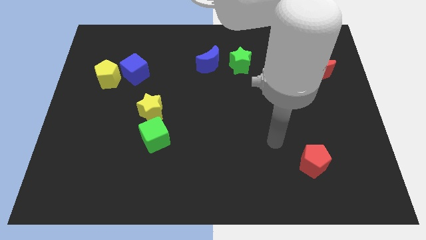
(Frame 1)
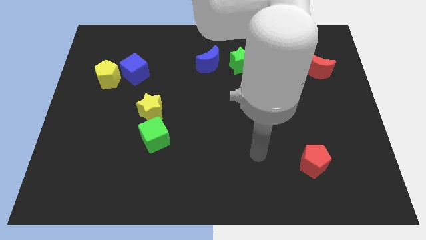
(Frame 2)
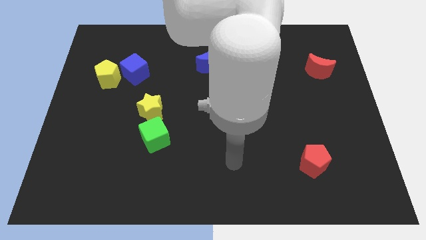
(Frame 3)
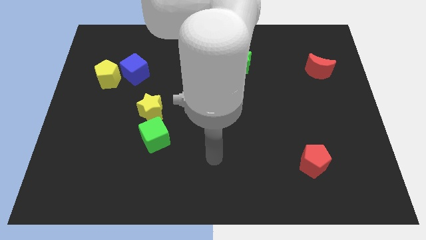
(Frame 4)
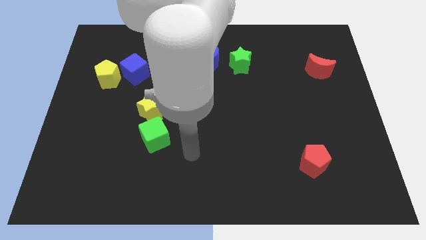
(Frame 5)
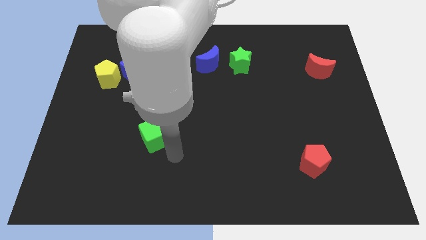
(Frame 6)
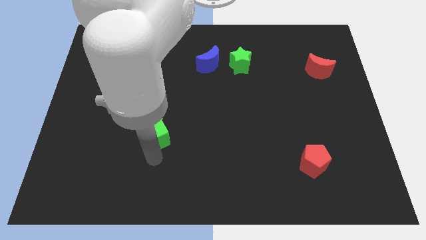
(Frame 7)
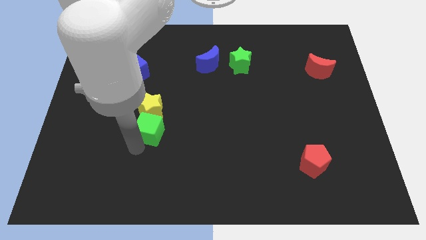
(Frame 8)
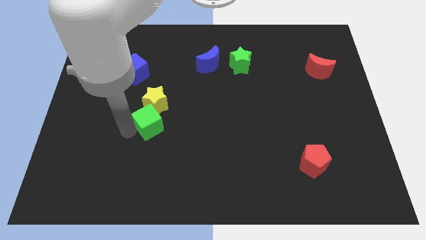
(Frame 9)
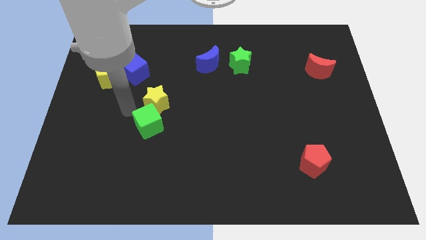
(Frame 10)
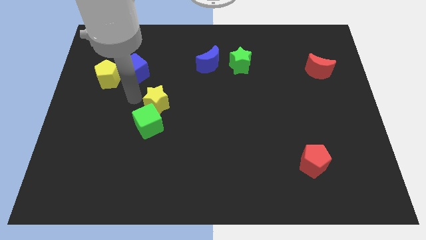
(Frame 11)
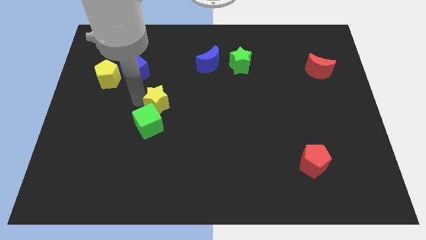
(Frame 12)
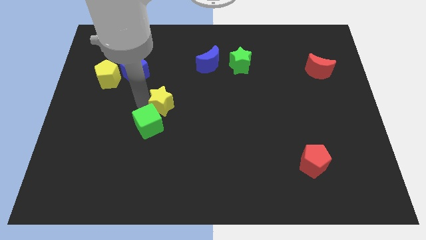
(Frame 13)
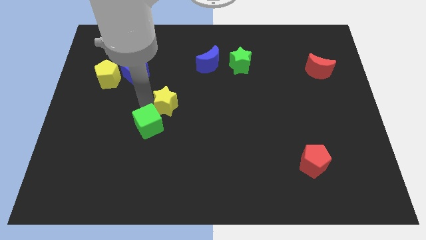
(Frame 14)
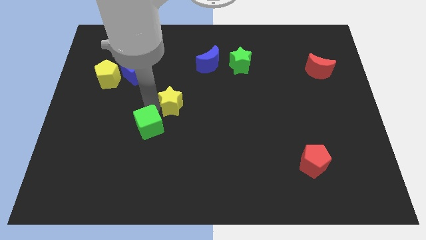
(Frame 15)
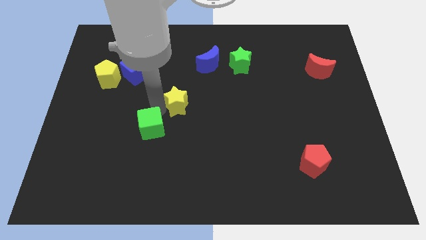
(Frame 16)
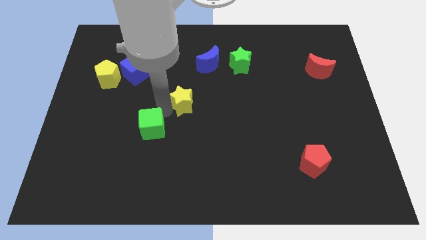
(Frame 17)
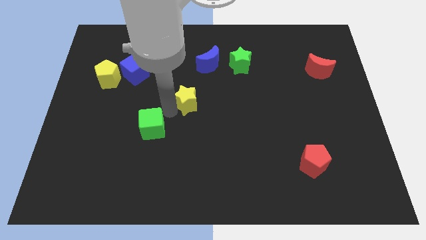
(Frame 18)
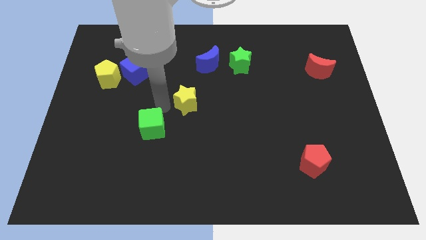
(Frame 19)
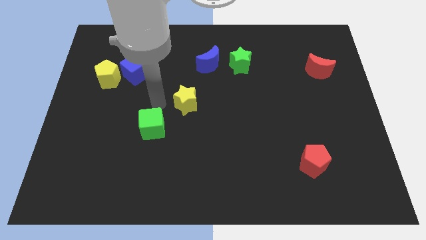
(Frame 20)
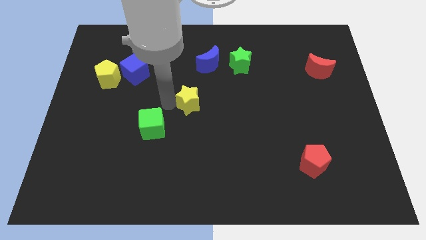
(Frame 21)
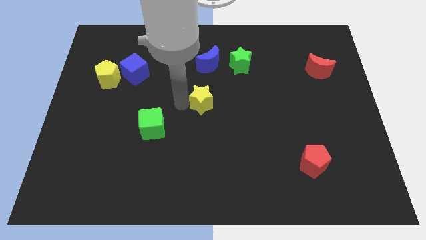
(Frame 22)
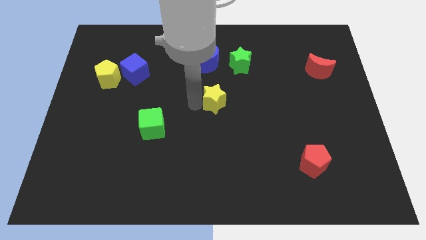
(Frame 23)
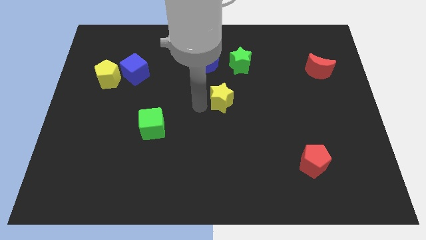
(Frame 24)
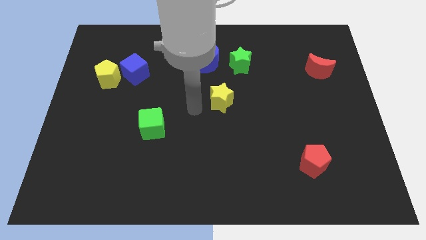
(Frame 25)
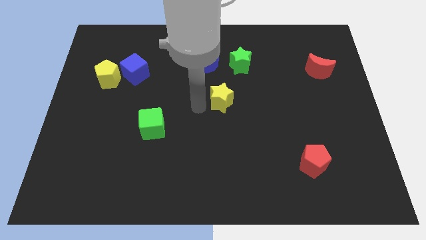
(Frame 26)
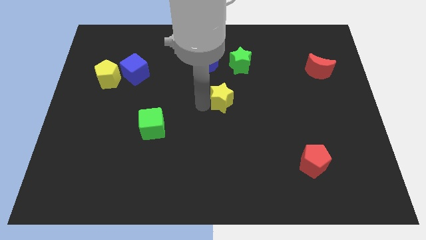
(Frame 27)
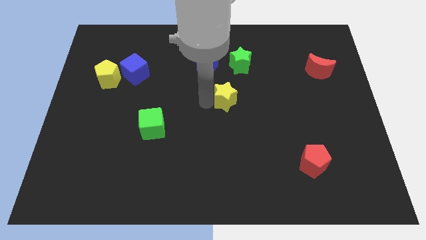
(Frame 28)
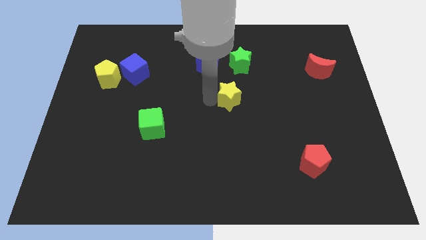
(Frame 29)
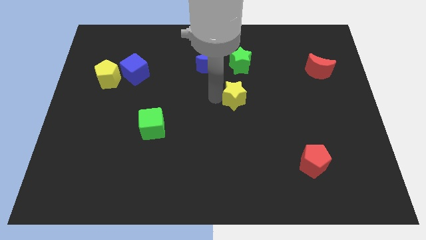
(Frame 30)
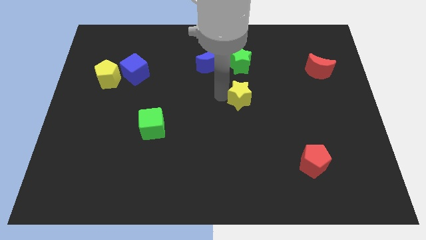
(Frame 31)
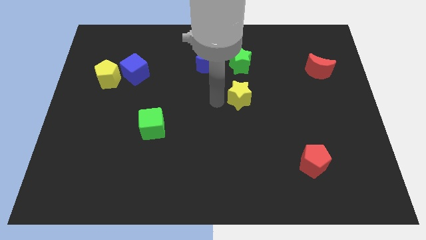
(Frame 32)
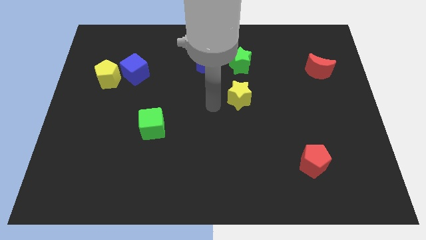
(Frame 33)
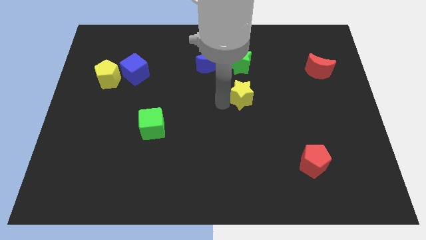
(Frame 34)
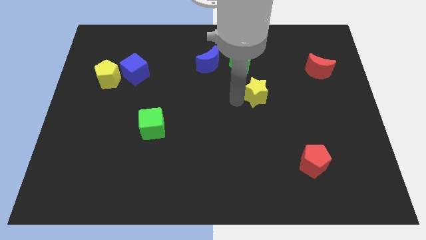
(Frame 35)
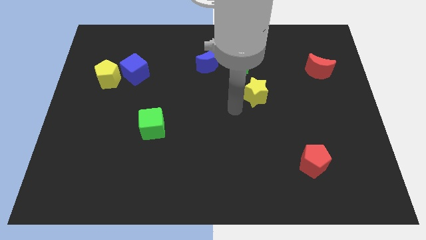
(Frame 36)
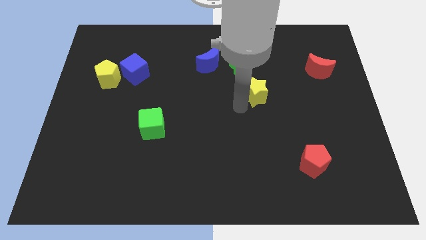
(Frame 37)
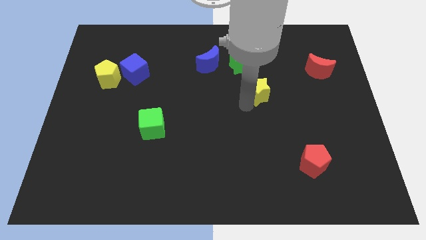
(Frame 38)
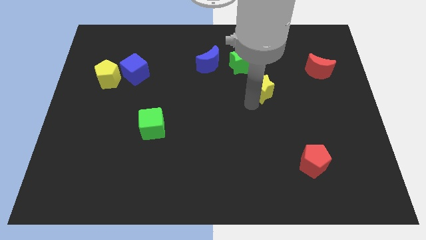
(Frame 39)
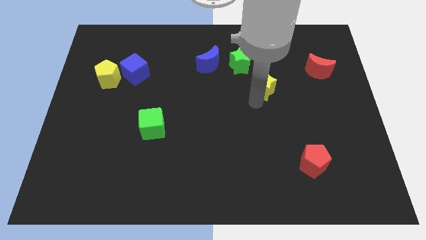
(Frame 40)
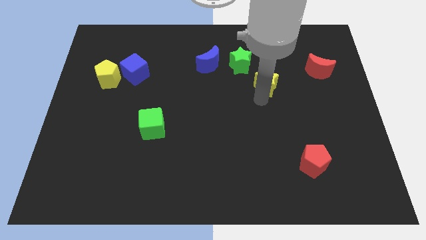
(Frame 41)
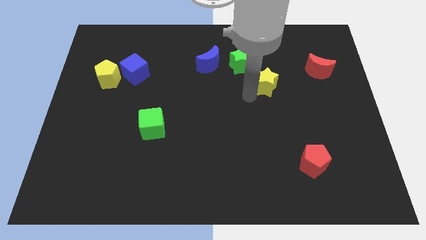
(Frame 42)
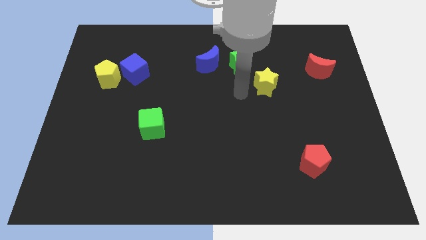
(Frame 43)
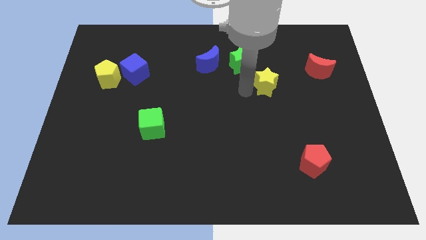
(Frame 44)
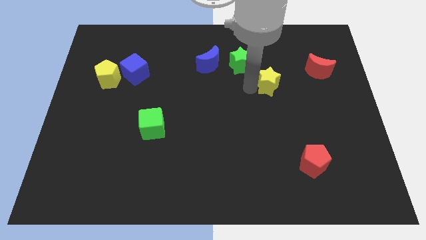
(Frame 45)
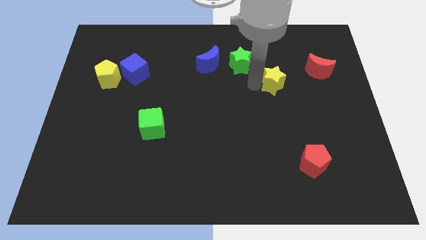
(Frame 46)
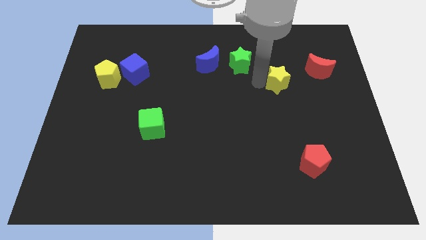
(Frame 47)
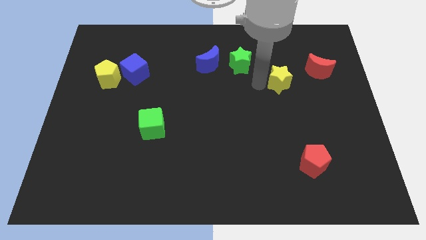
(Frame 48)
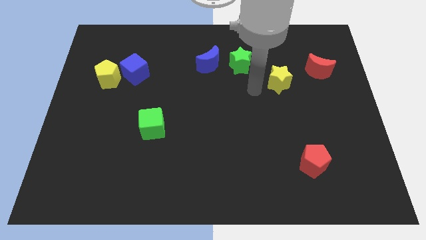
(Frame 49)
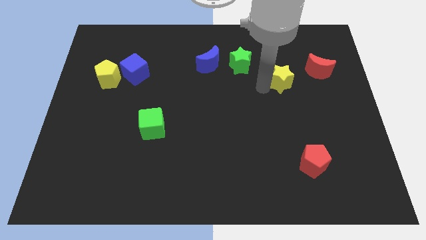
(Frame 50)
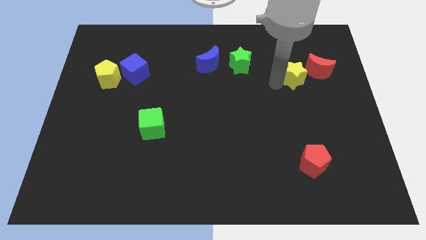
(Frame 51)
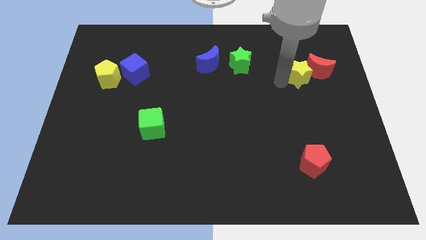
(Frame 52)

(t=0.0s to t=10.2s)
push the yellow star next to the red moon

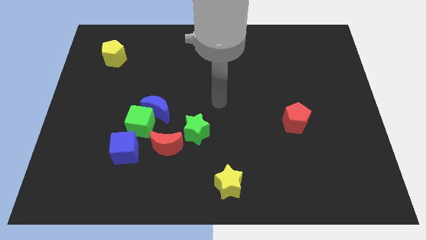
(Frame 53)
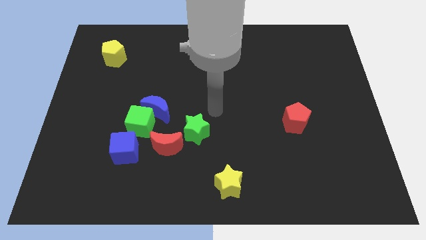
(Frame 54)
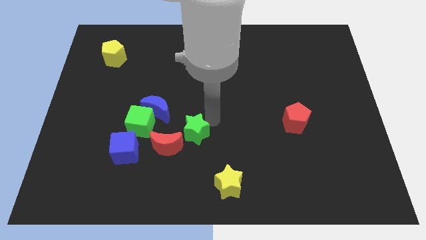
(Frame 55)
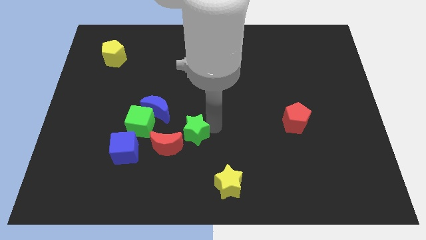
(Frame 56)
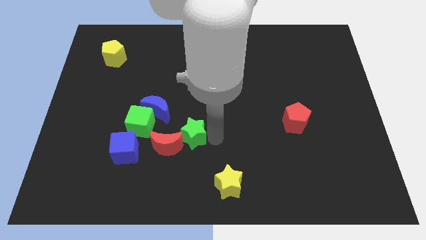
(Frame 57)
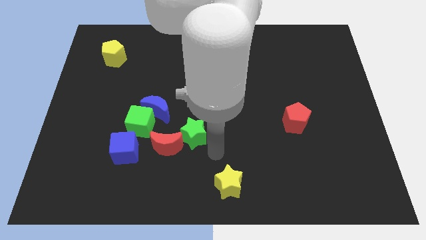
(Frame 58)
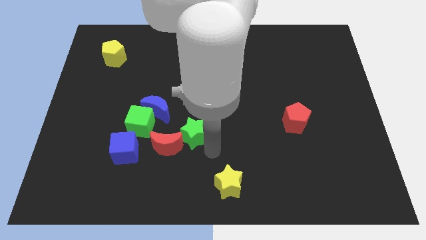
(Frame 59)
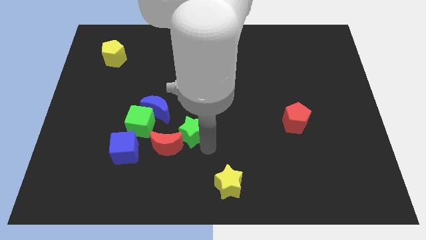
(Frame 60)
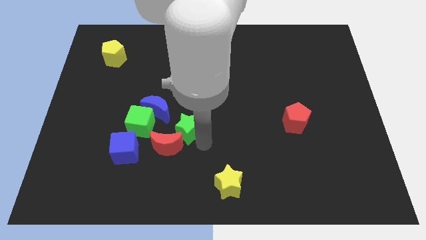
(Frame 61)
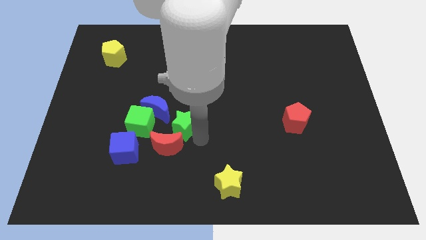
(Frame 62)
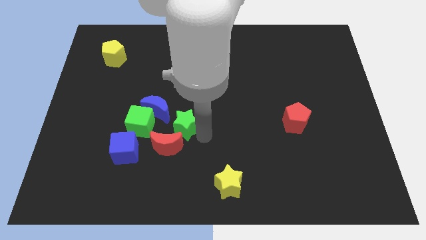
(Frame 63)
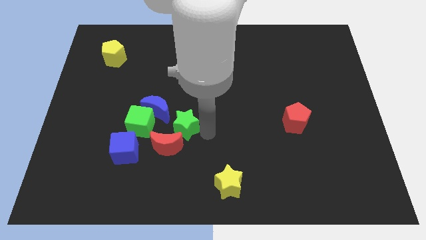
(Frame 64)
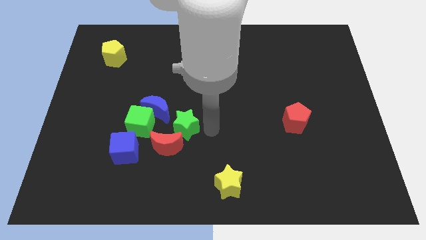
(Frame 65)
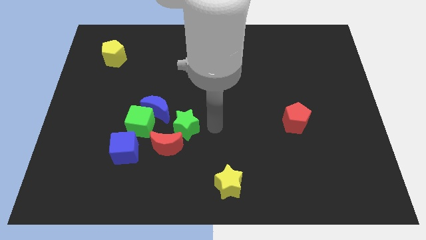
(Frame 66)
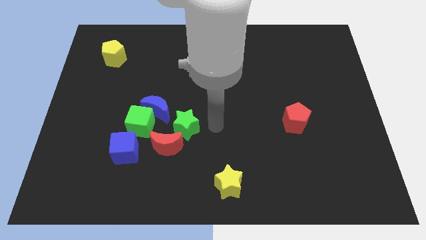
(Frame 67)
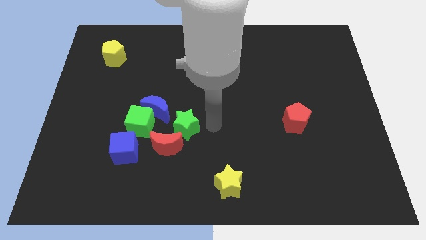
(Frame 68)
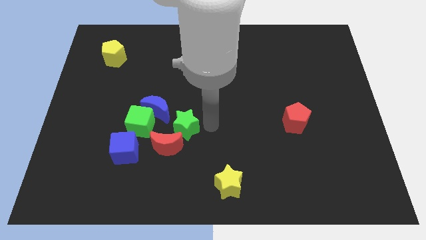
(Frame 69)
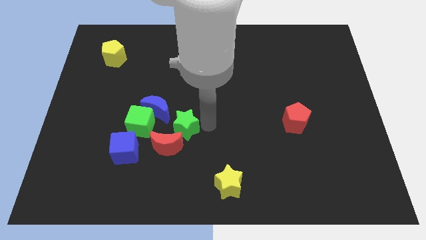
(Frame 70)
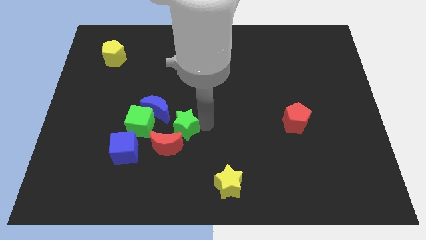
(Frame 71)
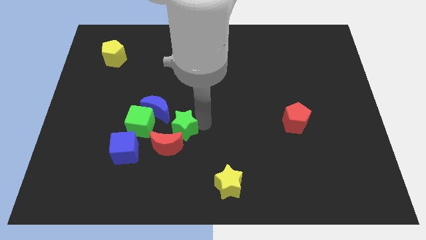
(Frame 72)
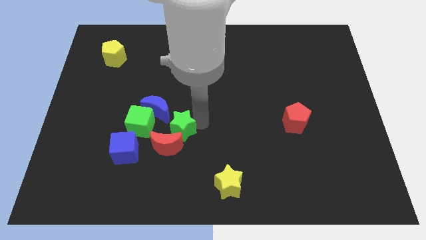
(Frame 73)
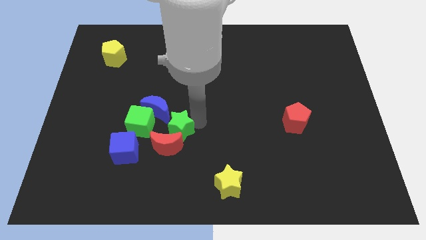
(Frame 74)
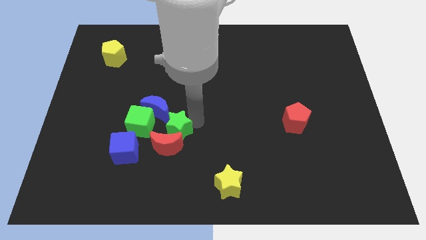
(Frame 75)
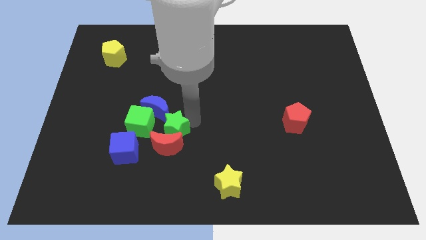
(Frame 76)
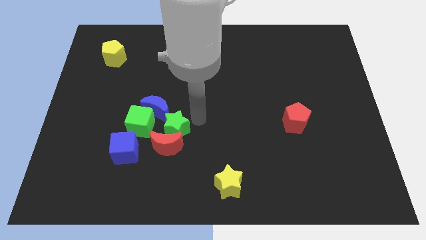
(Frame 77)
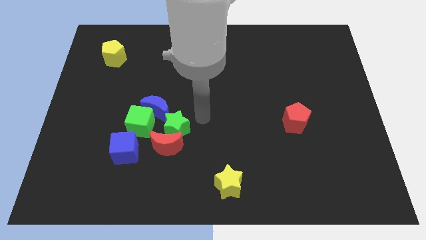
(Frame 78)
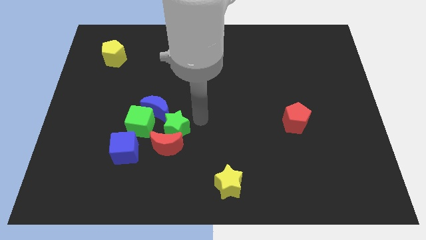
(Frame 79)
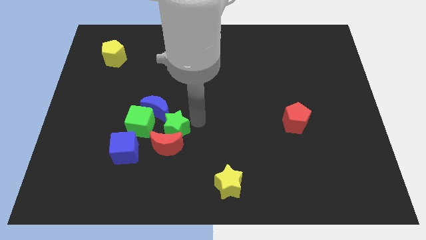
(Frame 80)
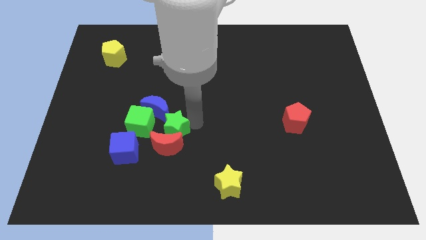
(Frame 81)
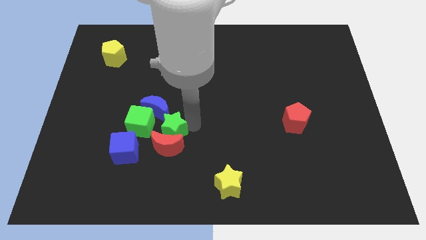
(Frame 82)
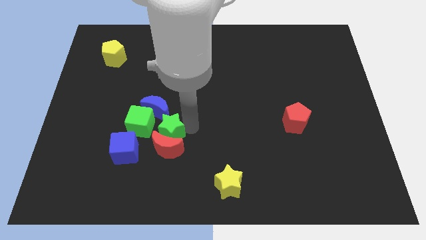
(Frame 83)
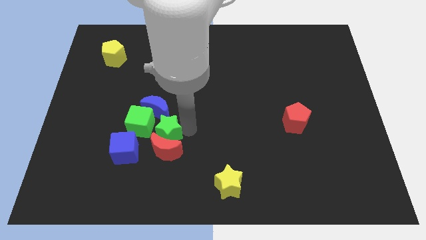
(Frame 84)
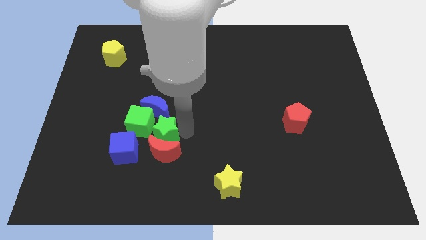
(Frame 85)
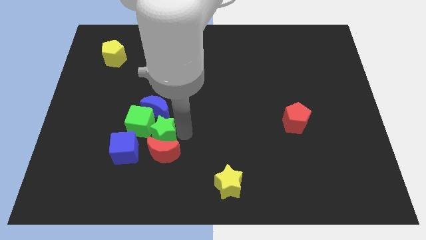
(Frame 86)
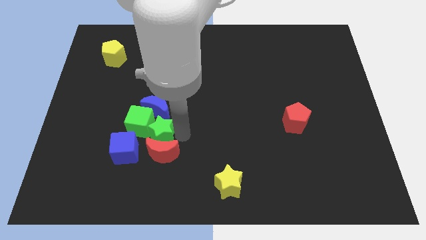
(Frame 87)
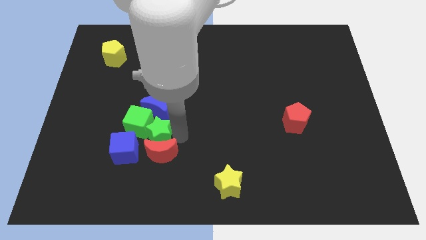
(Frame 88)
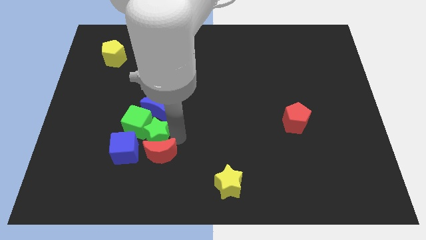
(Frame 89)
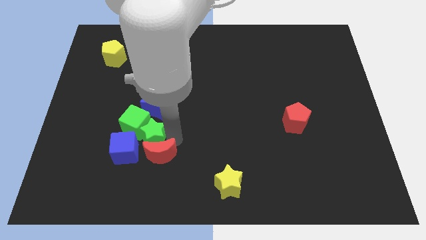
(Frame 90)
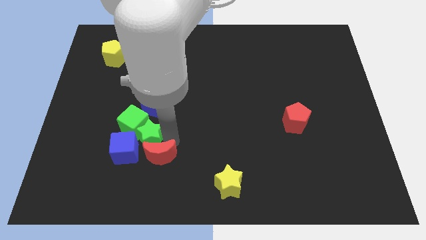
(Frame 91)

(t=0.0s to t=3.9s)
slide the green star towards the blue cube
